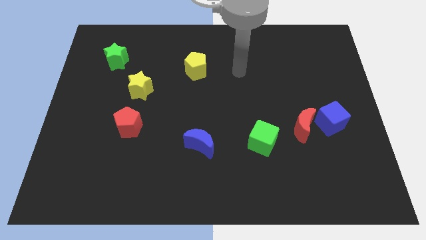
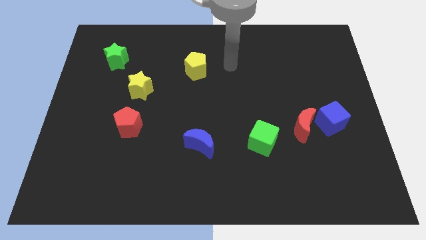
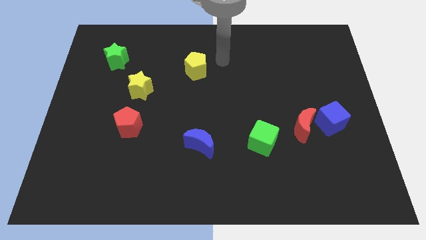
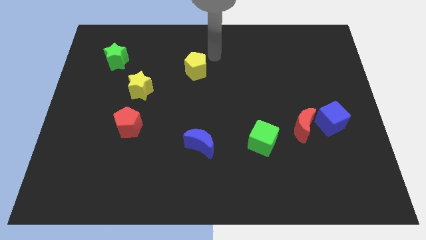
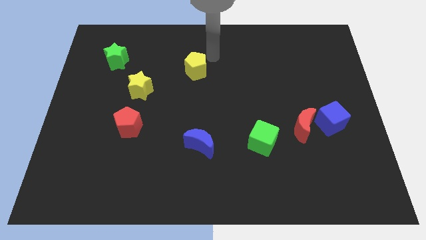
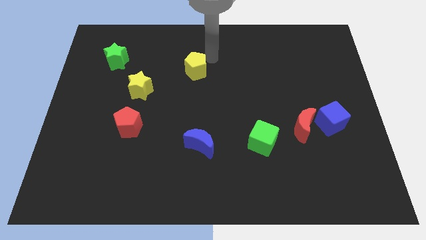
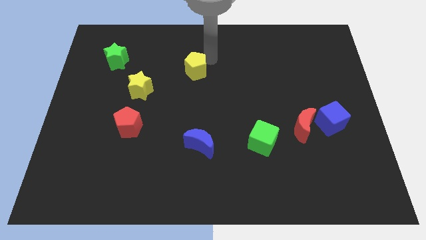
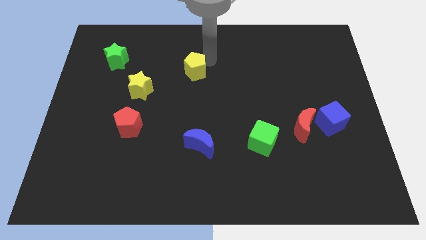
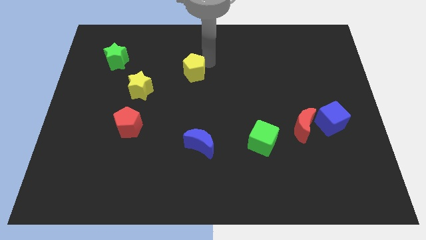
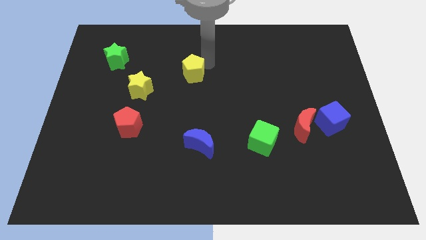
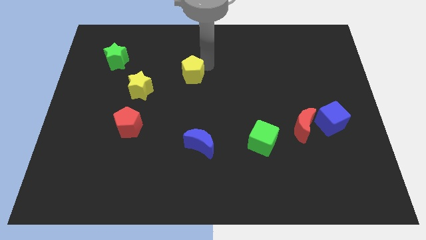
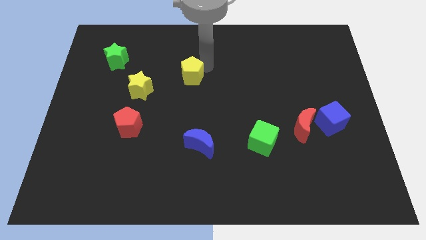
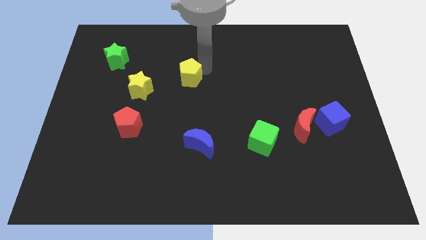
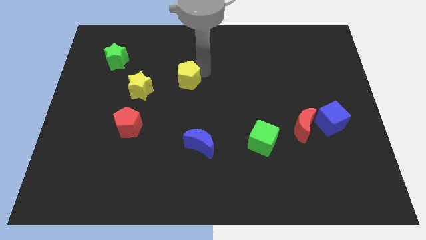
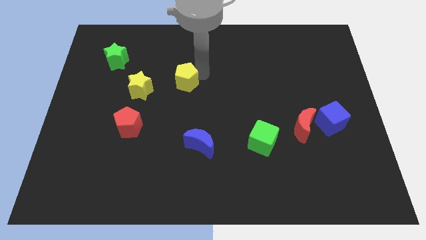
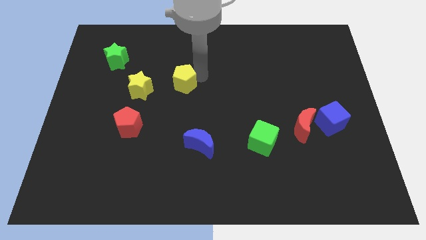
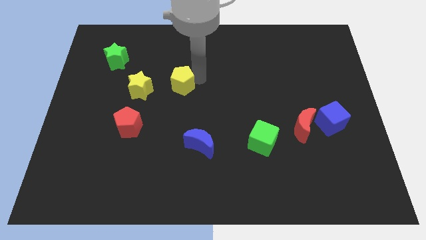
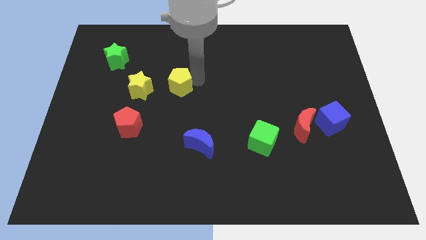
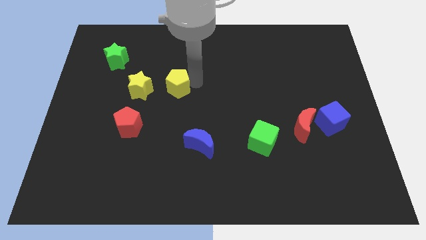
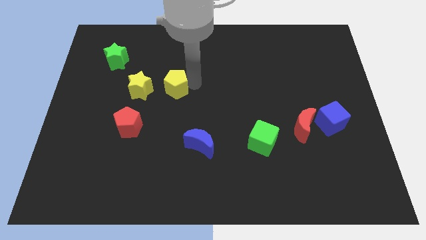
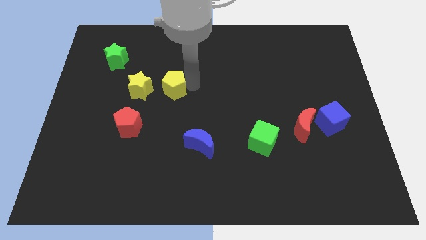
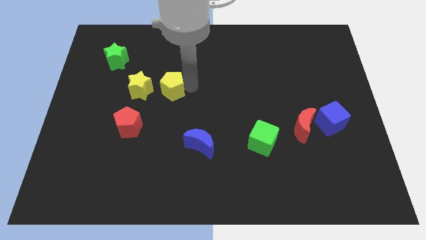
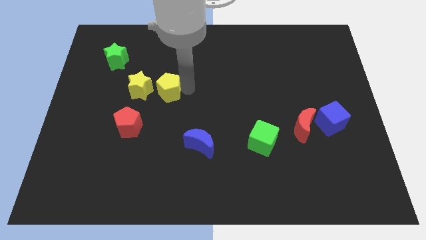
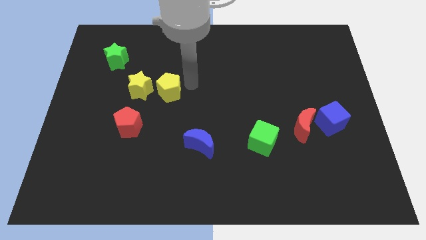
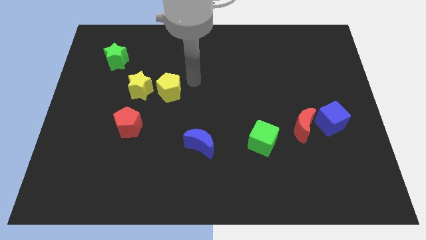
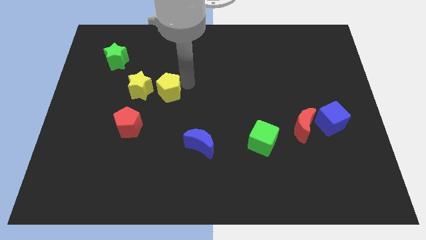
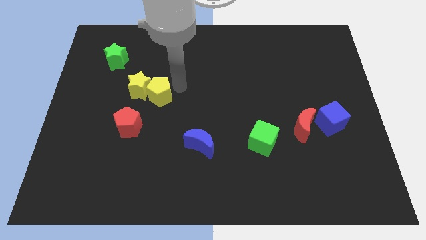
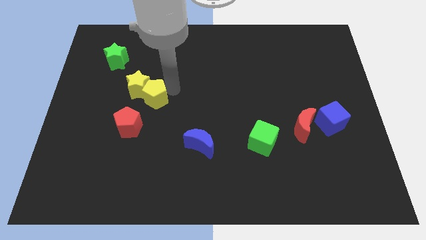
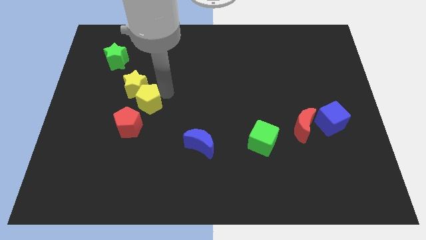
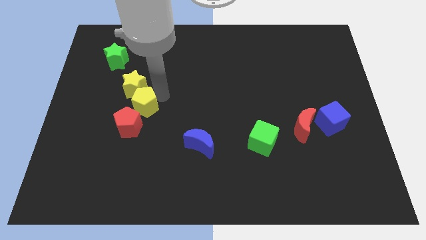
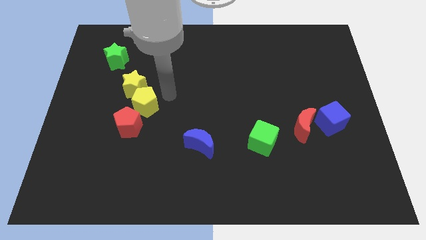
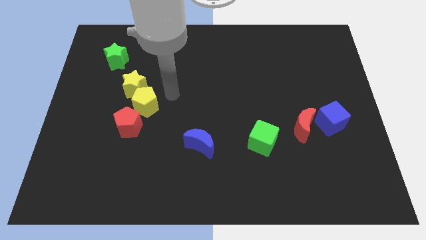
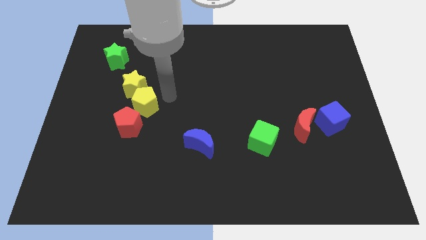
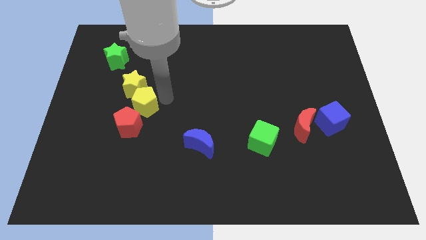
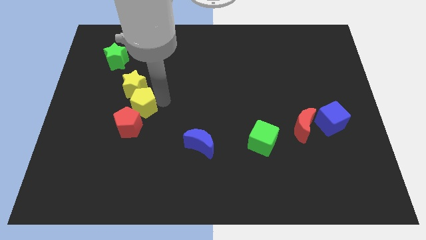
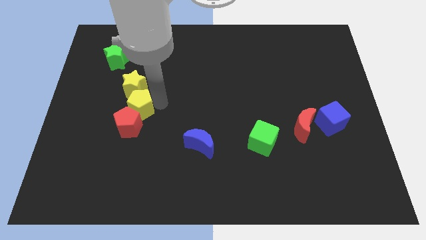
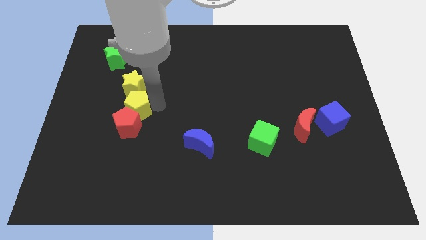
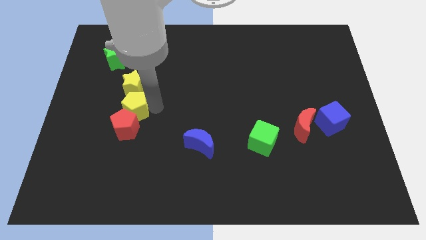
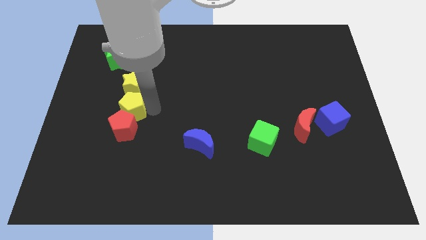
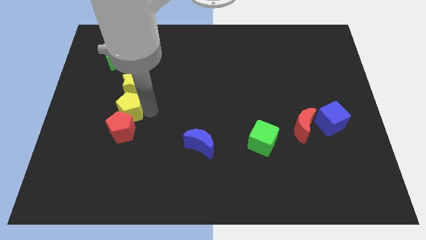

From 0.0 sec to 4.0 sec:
slide the yellow pentagon downwards and left

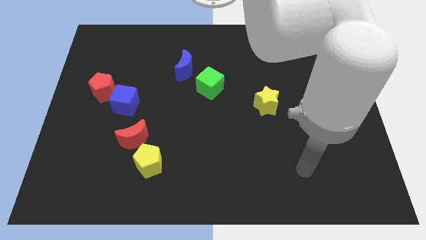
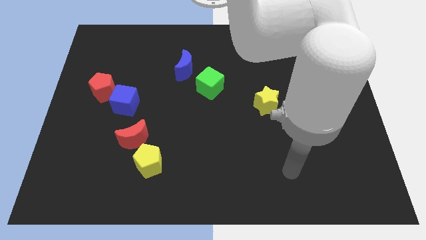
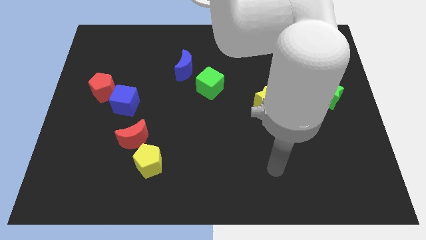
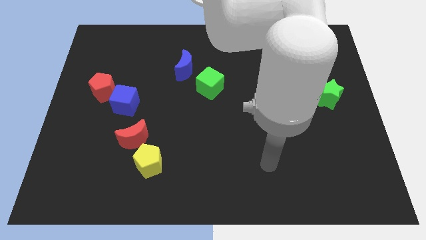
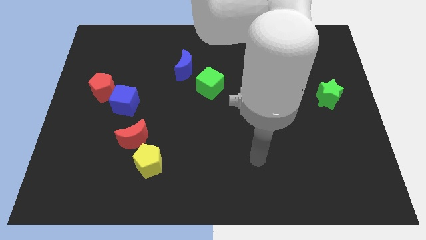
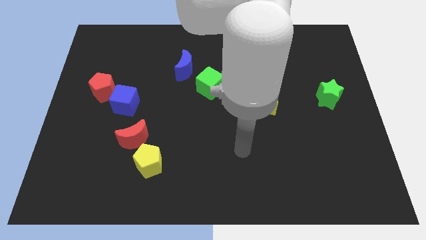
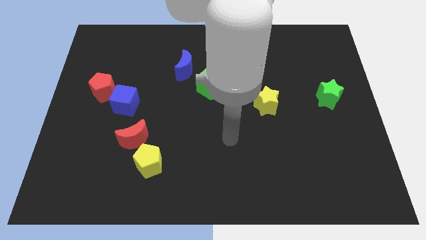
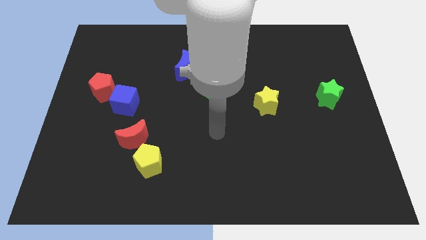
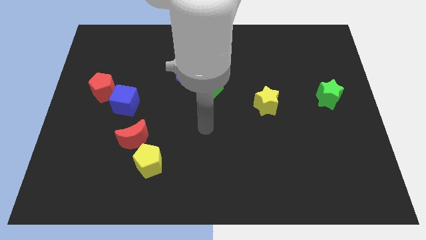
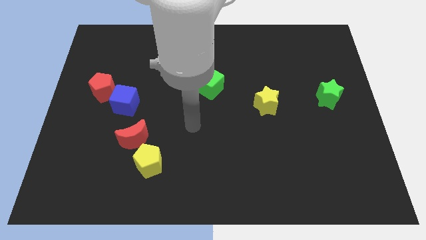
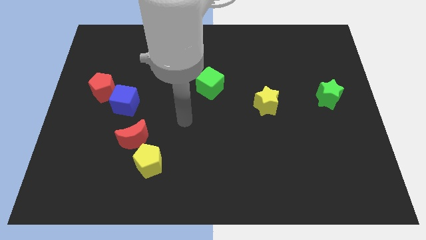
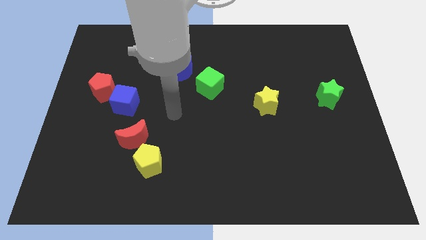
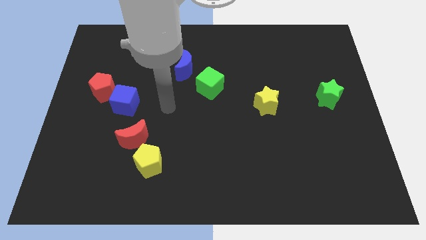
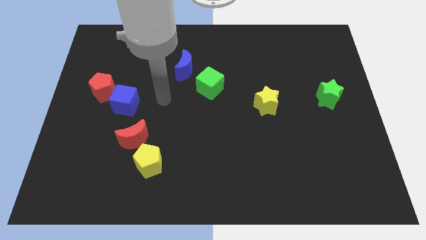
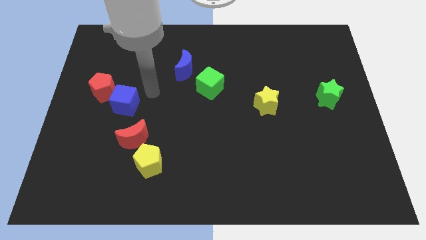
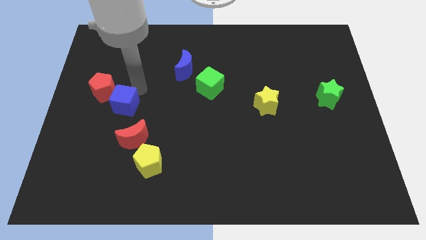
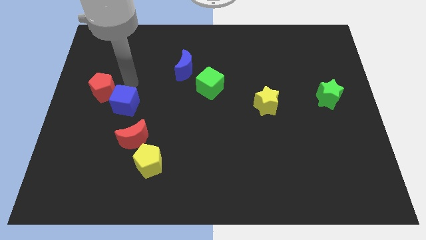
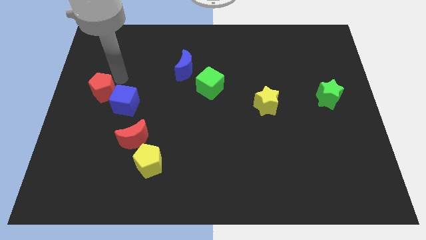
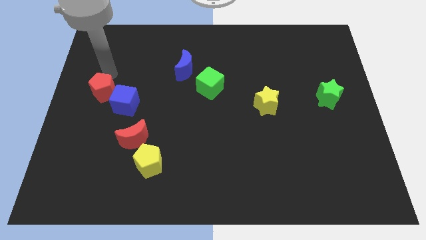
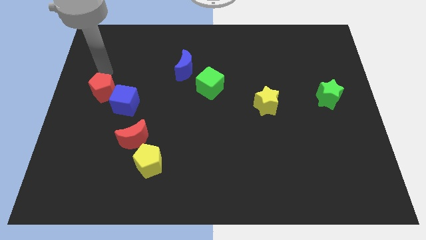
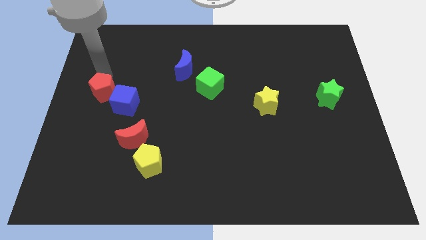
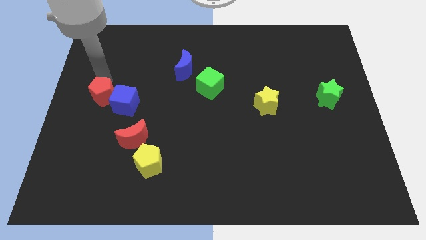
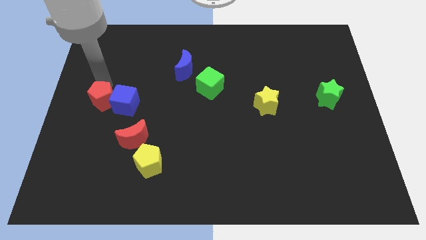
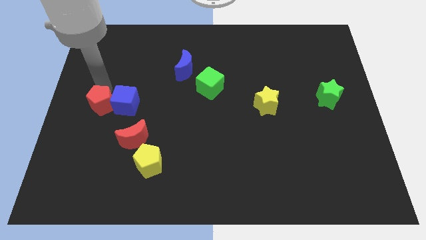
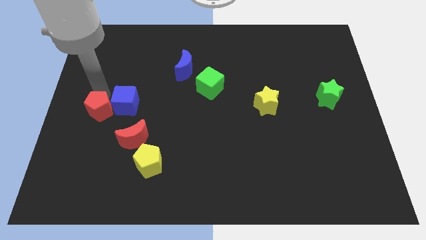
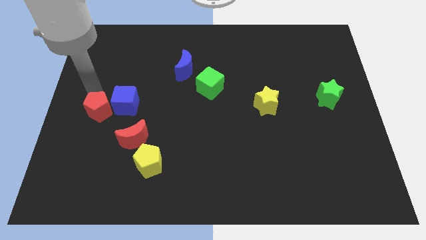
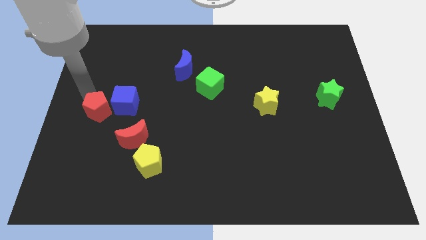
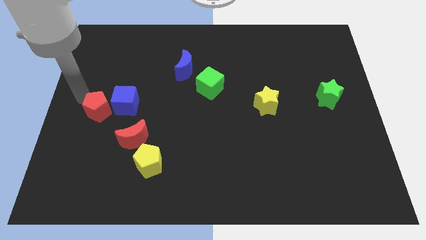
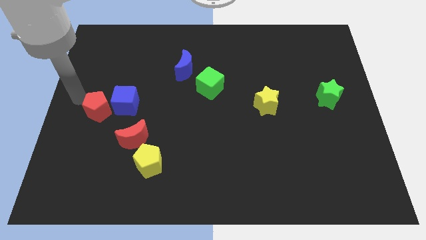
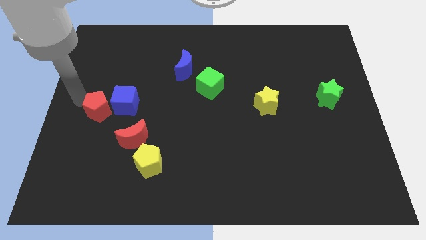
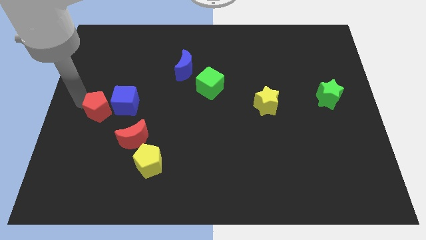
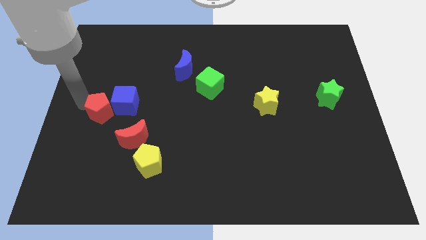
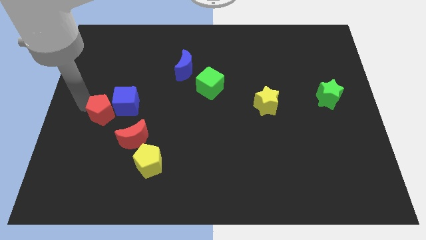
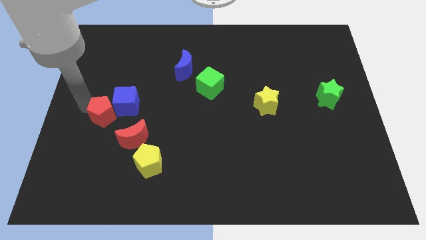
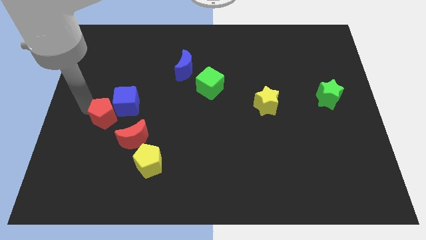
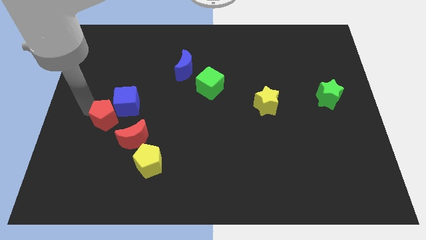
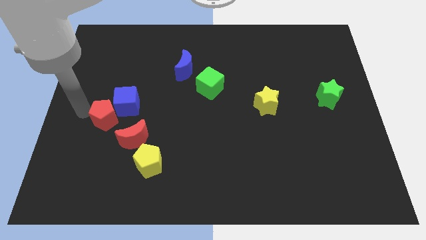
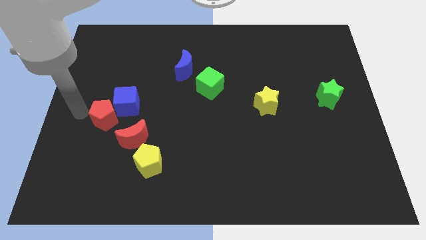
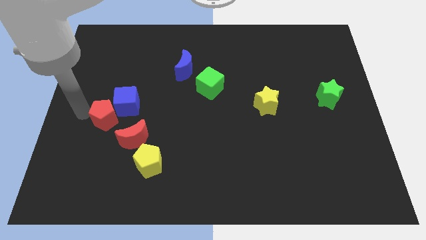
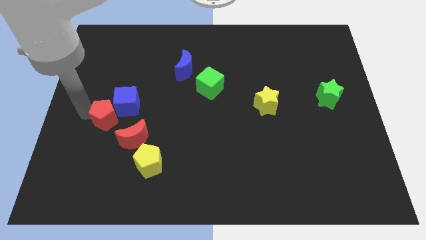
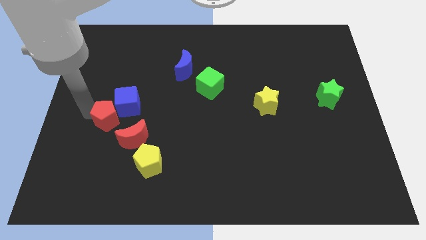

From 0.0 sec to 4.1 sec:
move the red pentagon slightly down and then to the right
